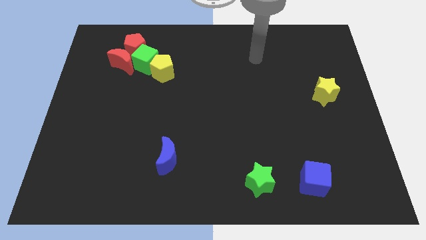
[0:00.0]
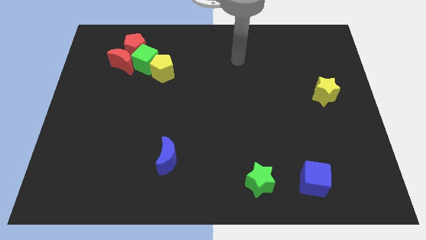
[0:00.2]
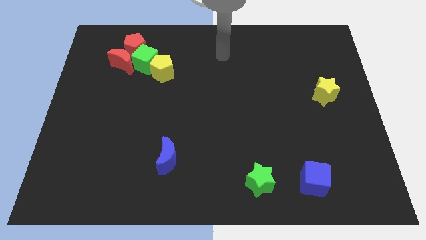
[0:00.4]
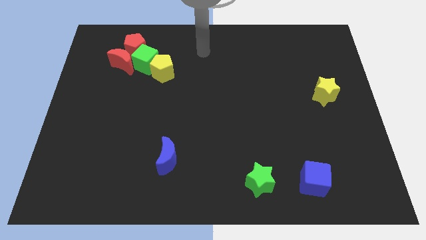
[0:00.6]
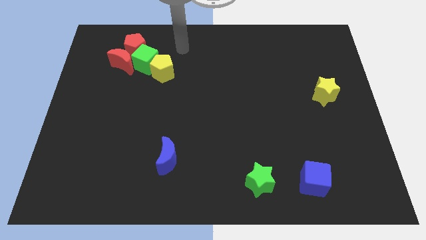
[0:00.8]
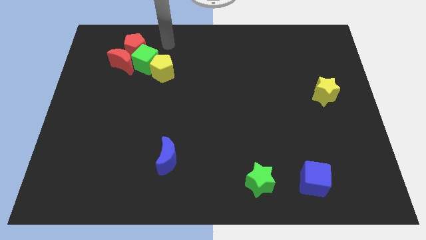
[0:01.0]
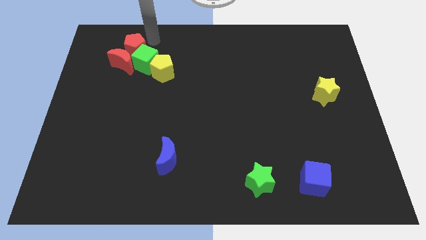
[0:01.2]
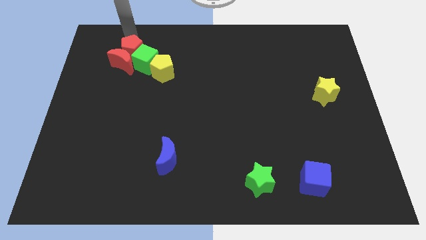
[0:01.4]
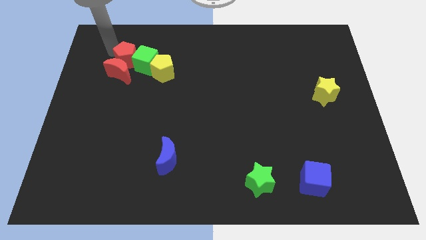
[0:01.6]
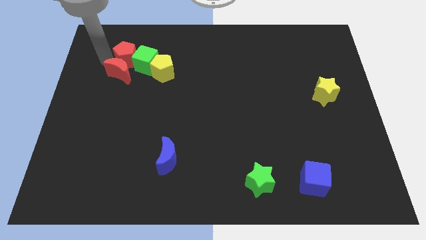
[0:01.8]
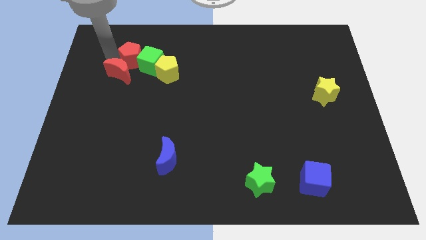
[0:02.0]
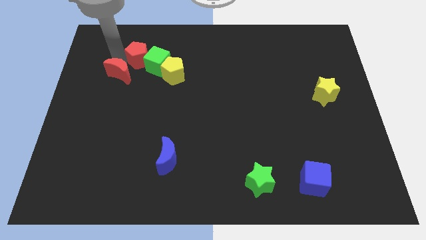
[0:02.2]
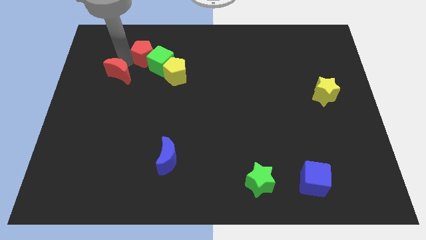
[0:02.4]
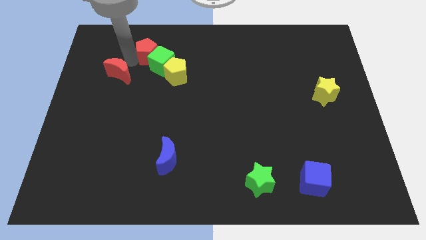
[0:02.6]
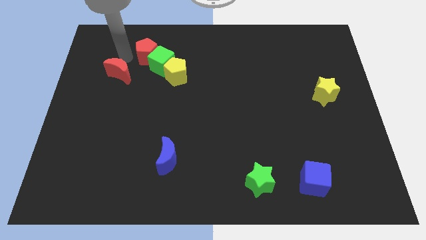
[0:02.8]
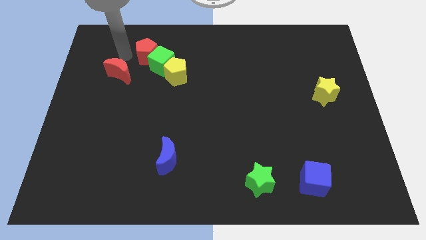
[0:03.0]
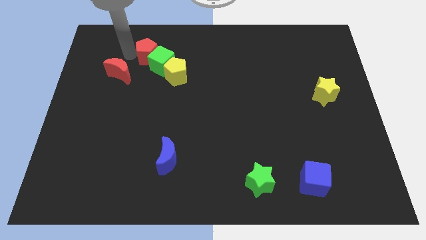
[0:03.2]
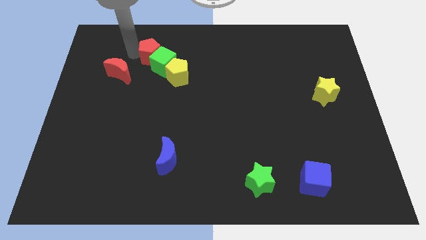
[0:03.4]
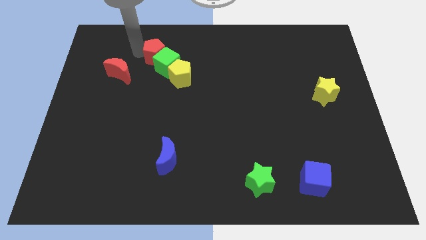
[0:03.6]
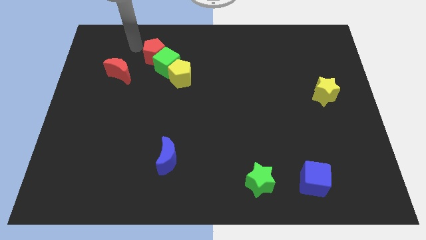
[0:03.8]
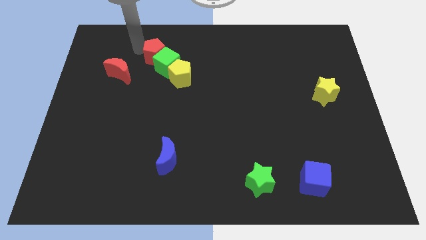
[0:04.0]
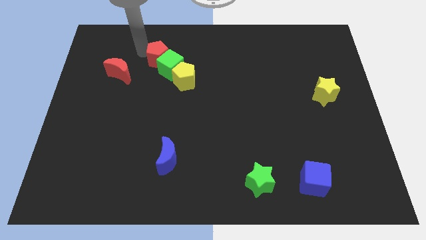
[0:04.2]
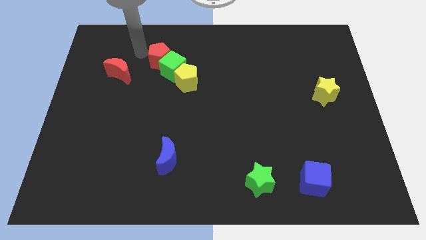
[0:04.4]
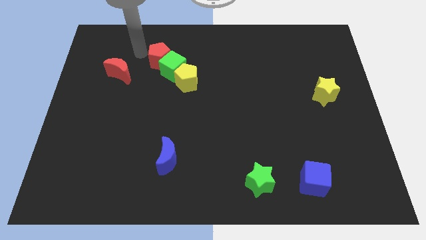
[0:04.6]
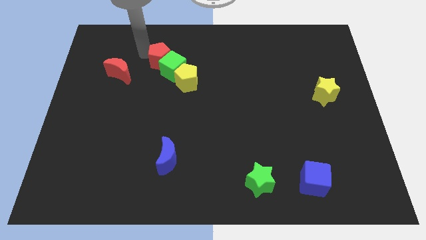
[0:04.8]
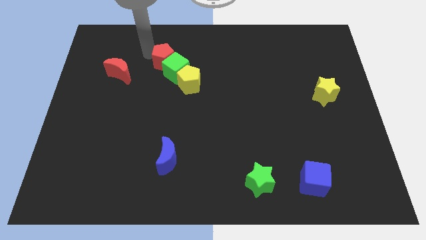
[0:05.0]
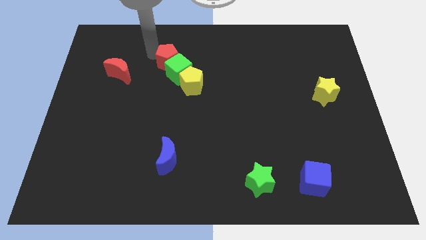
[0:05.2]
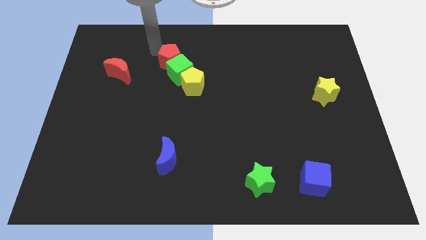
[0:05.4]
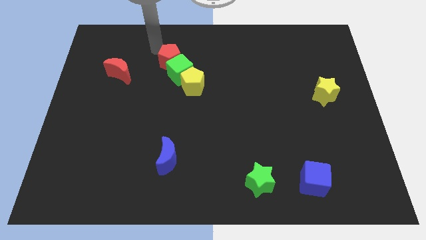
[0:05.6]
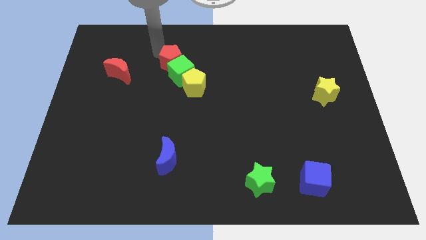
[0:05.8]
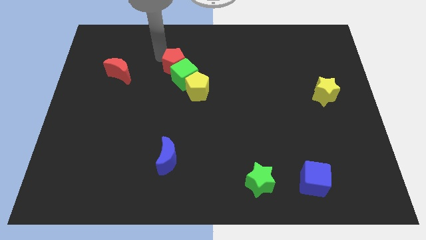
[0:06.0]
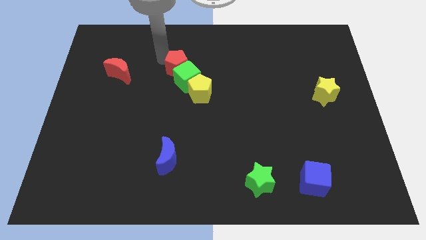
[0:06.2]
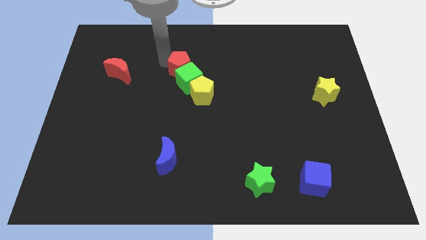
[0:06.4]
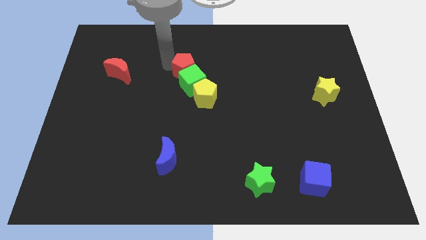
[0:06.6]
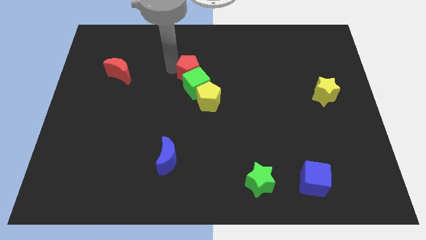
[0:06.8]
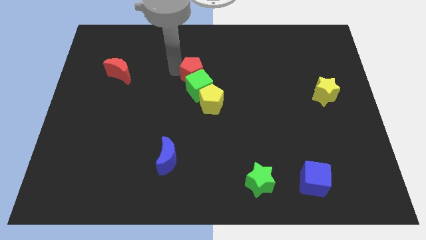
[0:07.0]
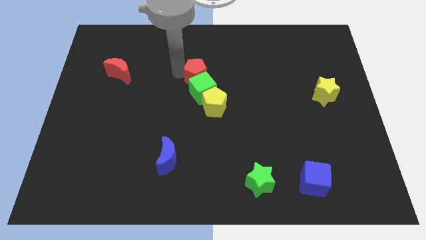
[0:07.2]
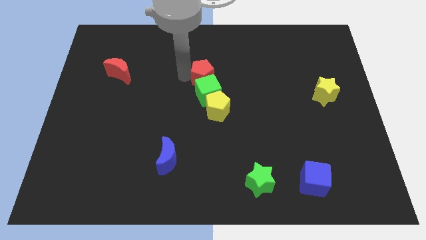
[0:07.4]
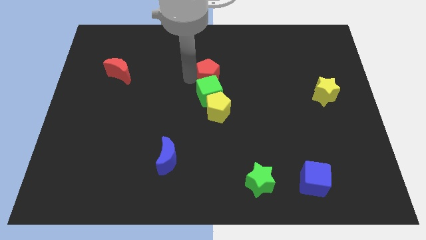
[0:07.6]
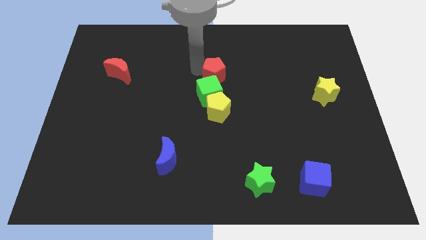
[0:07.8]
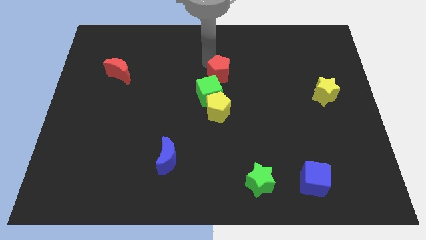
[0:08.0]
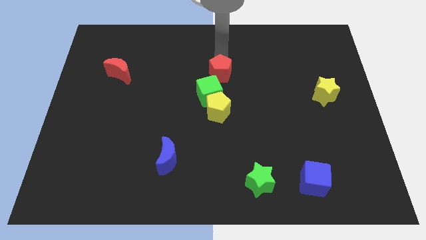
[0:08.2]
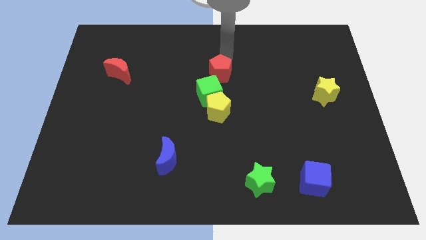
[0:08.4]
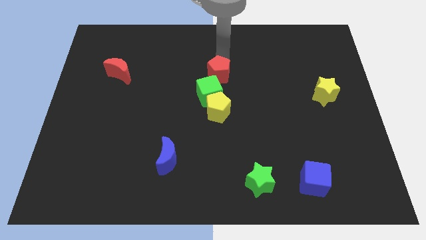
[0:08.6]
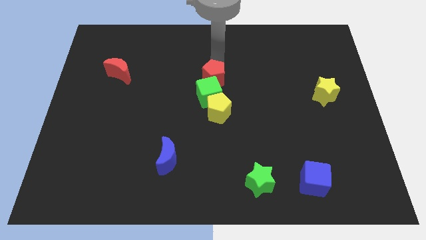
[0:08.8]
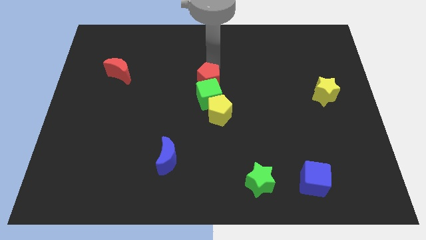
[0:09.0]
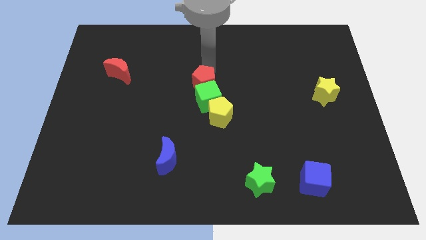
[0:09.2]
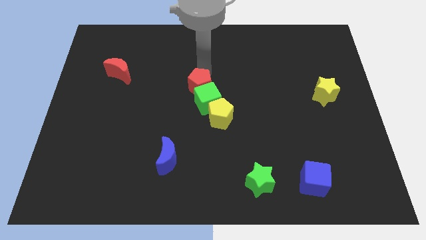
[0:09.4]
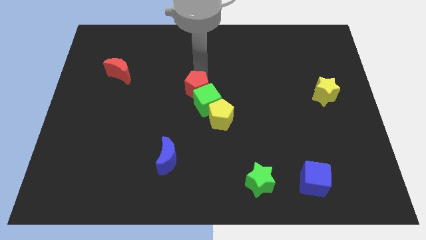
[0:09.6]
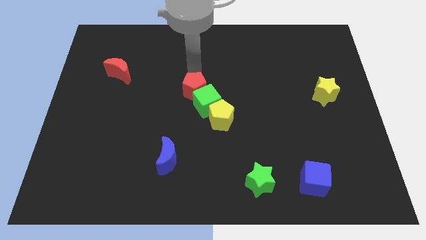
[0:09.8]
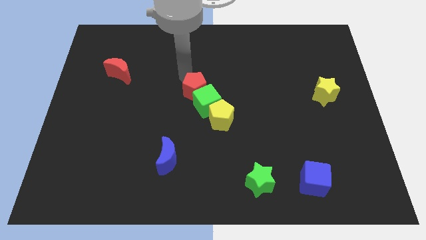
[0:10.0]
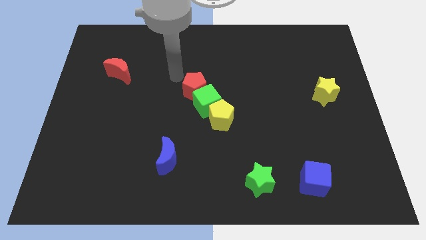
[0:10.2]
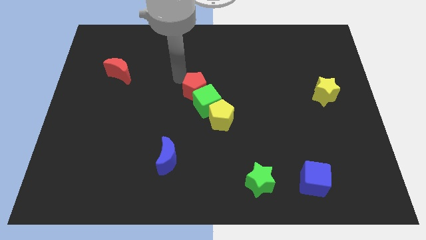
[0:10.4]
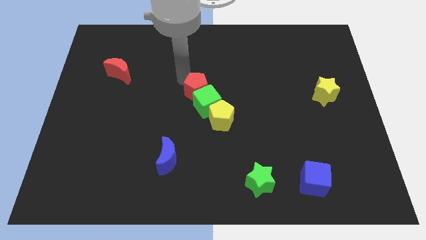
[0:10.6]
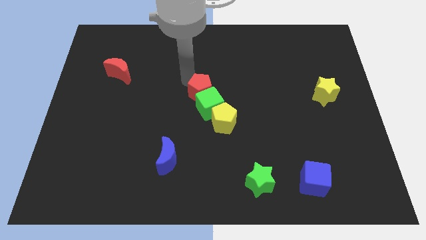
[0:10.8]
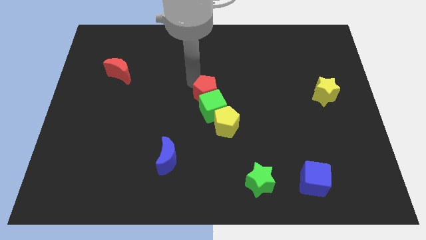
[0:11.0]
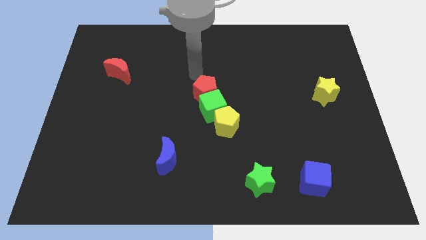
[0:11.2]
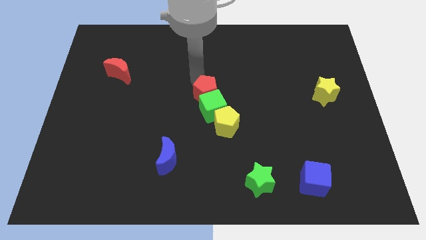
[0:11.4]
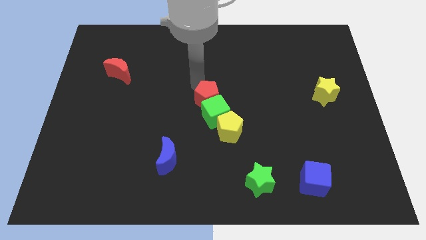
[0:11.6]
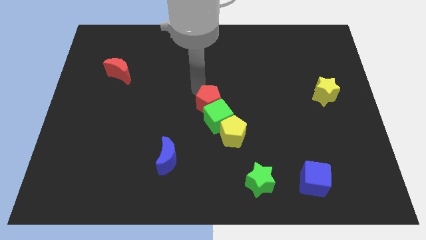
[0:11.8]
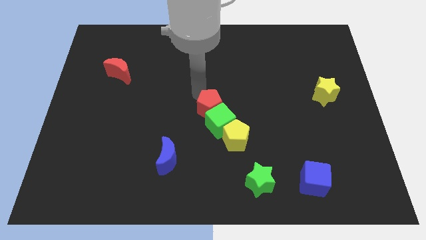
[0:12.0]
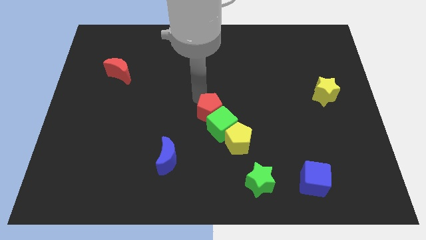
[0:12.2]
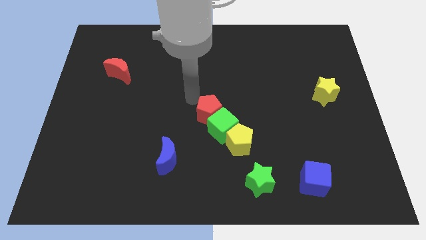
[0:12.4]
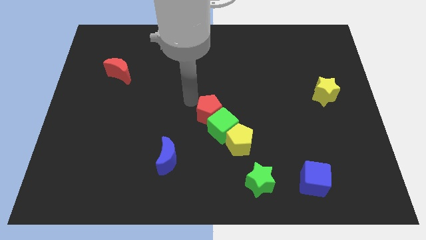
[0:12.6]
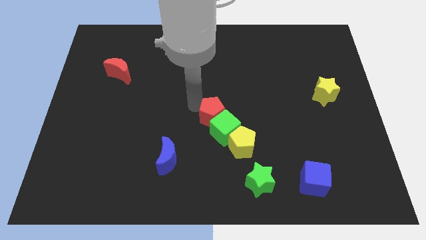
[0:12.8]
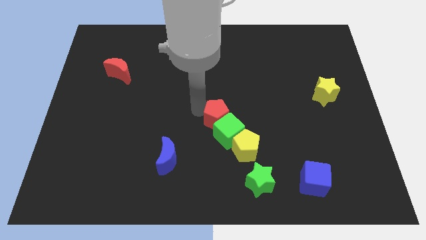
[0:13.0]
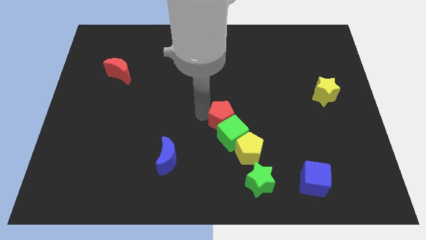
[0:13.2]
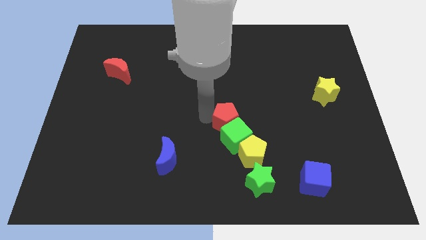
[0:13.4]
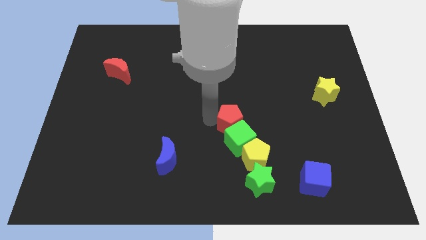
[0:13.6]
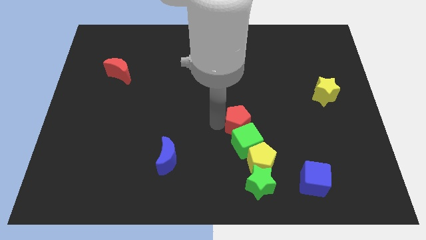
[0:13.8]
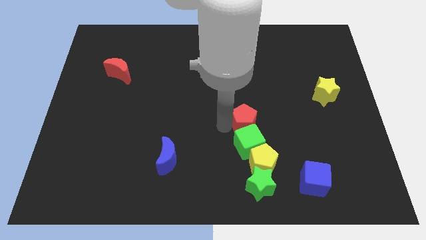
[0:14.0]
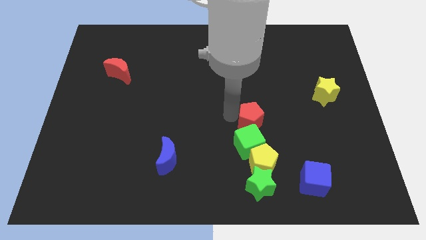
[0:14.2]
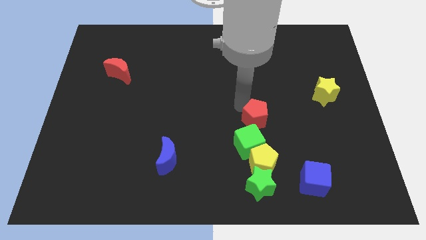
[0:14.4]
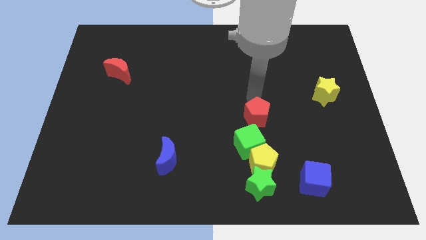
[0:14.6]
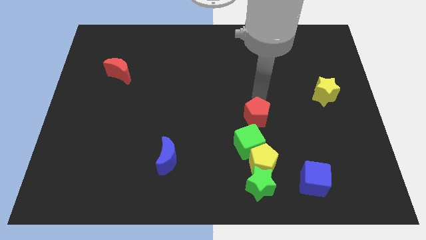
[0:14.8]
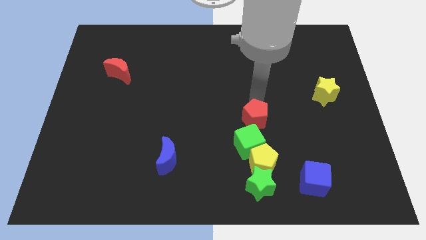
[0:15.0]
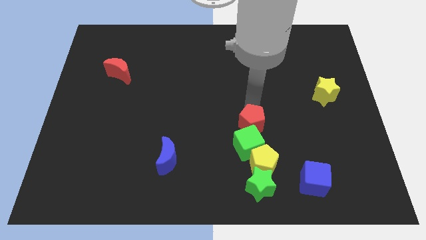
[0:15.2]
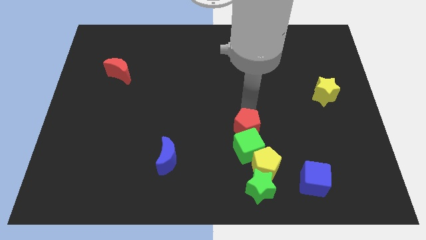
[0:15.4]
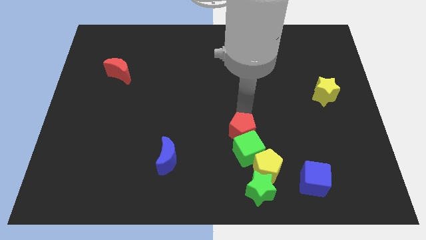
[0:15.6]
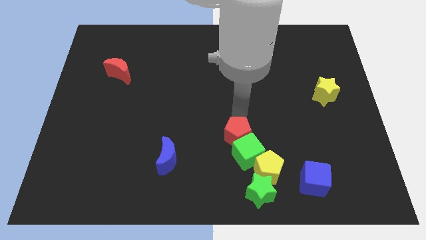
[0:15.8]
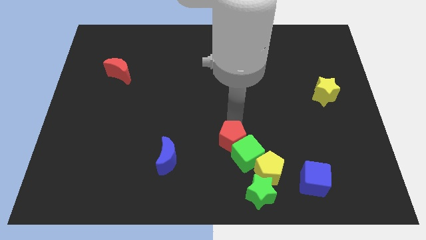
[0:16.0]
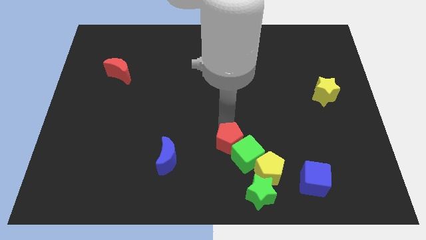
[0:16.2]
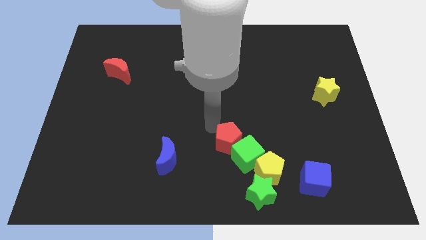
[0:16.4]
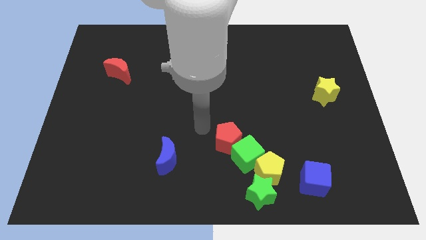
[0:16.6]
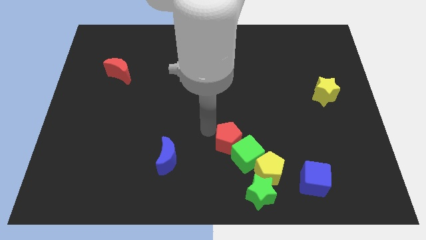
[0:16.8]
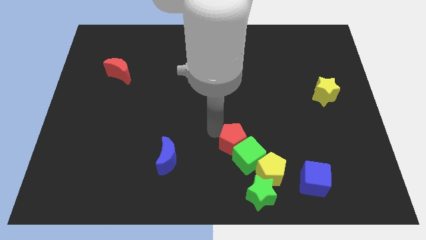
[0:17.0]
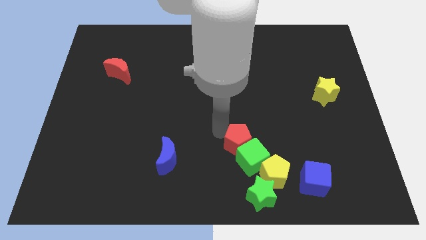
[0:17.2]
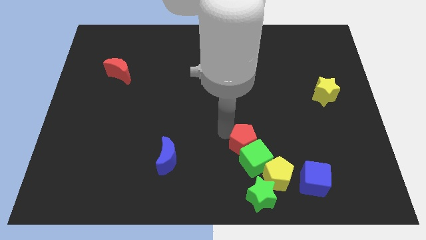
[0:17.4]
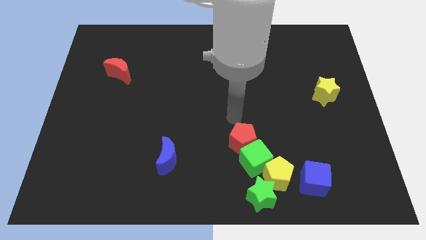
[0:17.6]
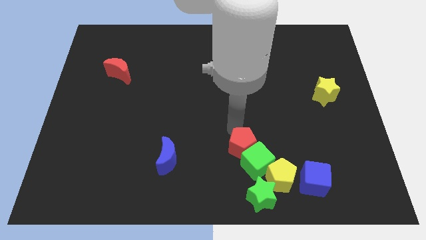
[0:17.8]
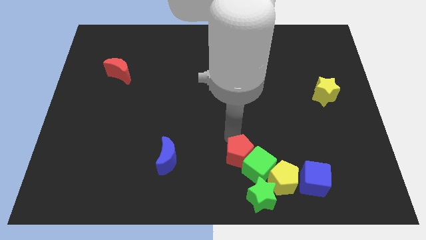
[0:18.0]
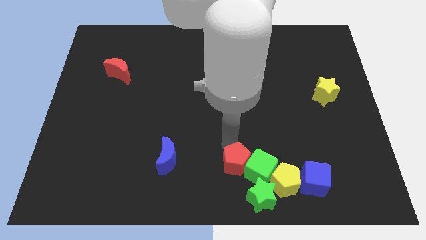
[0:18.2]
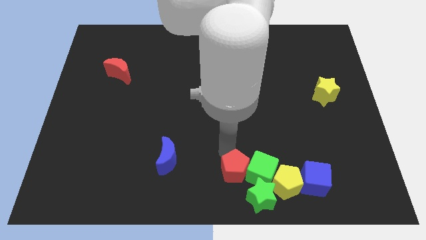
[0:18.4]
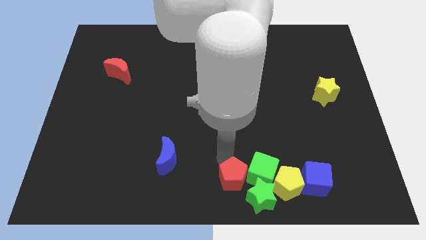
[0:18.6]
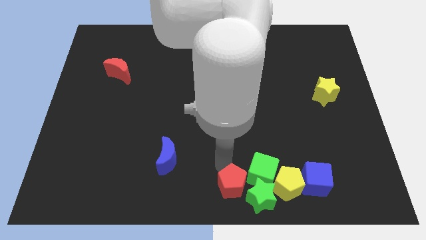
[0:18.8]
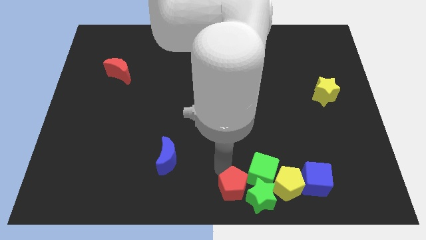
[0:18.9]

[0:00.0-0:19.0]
push the red pentagon to the green star
